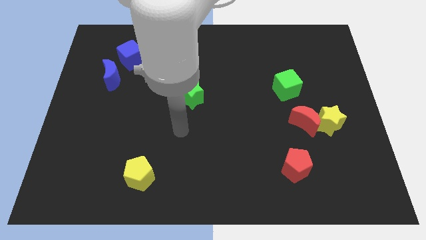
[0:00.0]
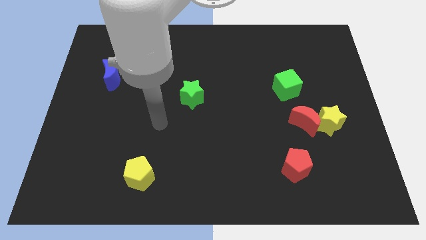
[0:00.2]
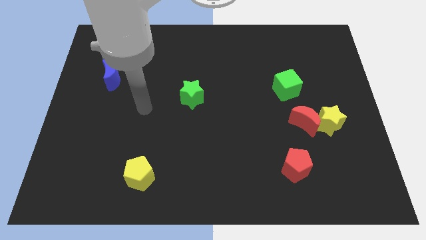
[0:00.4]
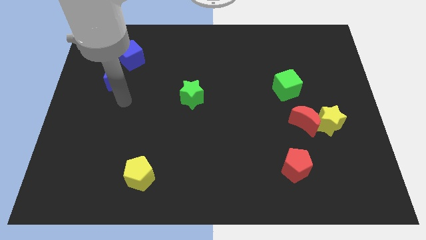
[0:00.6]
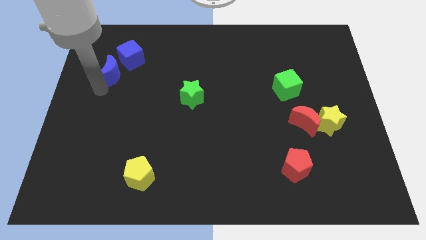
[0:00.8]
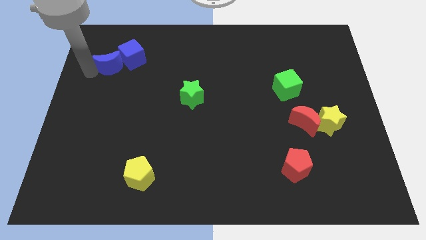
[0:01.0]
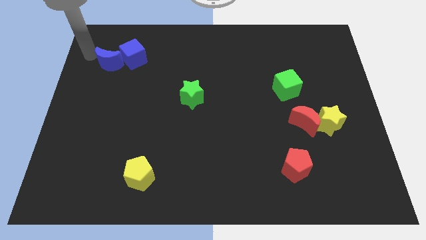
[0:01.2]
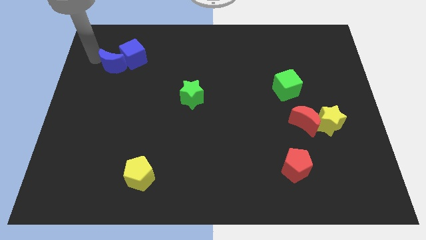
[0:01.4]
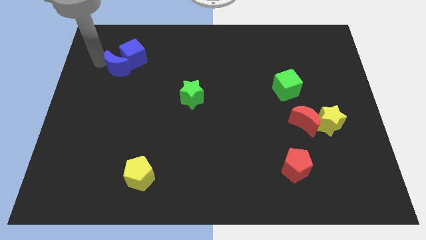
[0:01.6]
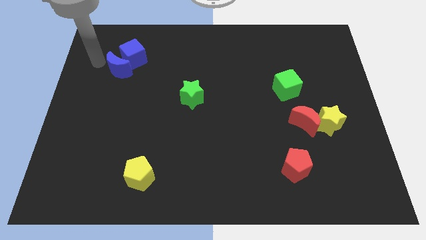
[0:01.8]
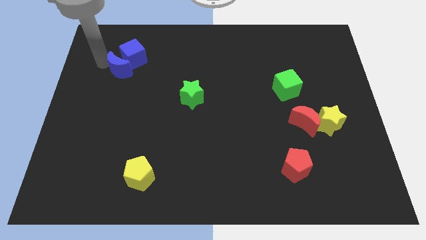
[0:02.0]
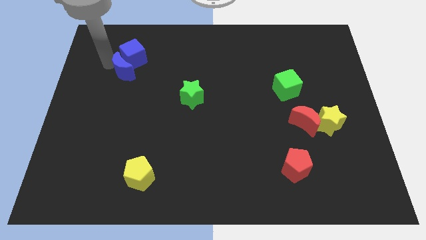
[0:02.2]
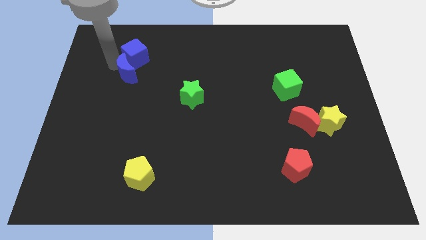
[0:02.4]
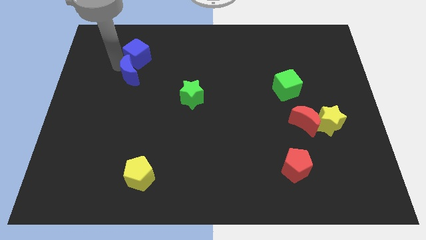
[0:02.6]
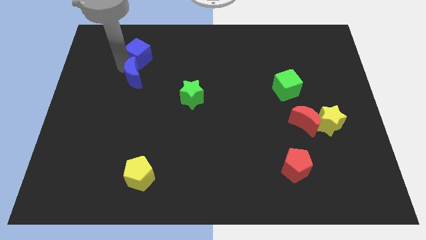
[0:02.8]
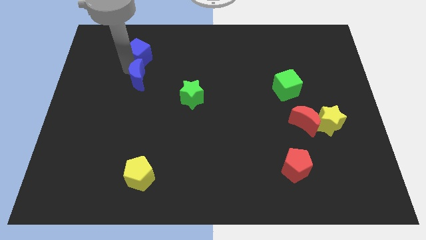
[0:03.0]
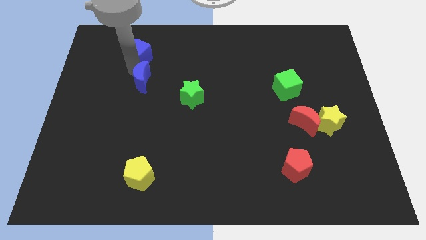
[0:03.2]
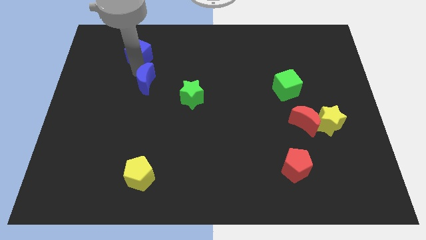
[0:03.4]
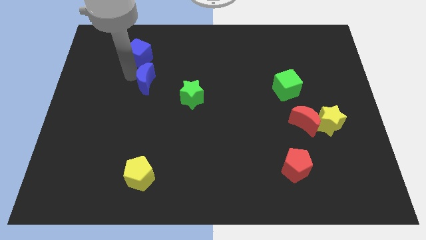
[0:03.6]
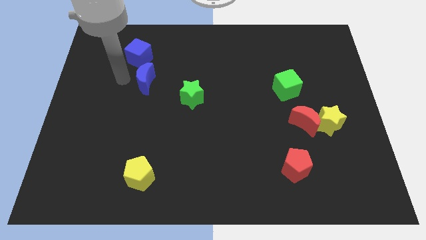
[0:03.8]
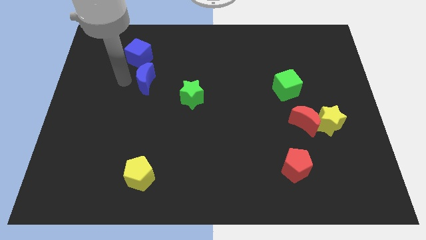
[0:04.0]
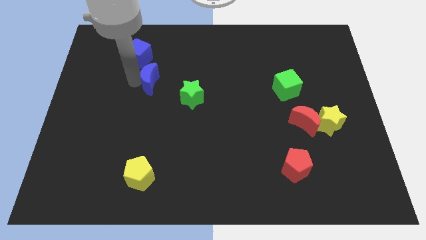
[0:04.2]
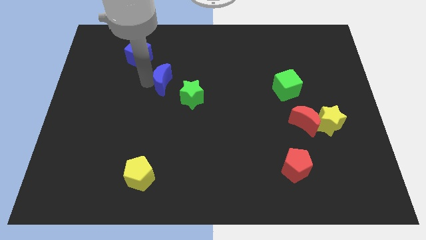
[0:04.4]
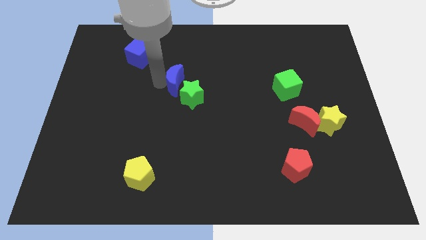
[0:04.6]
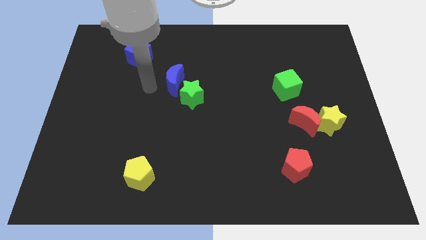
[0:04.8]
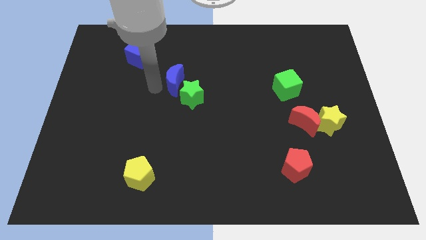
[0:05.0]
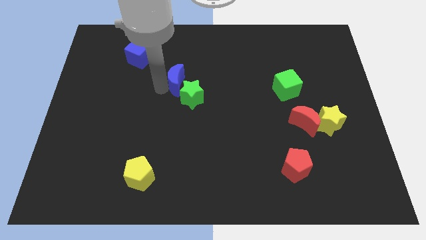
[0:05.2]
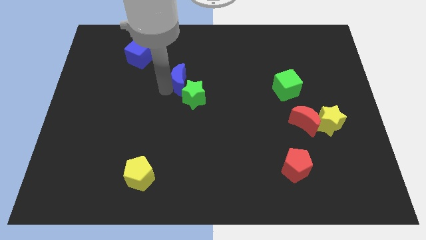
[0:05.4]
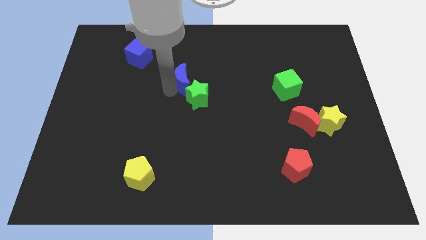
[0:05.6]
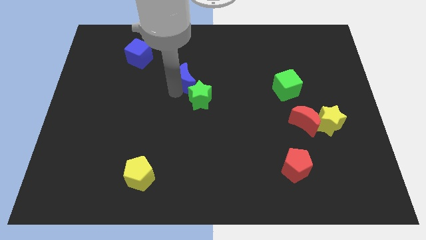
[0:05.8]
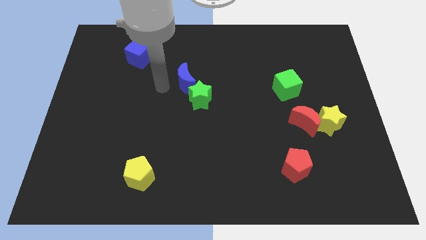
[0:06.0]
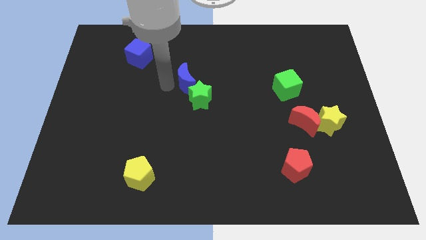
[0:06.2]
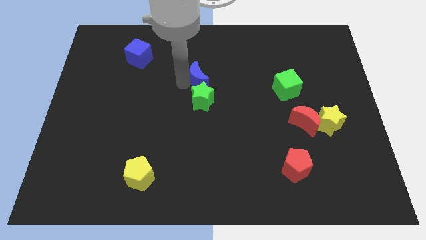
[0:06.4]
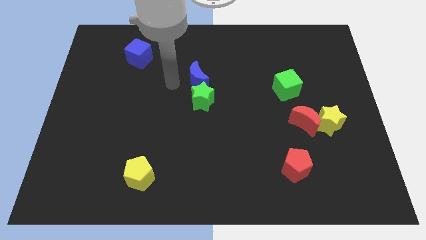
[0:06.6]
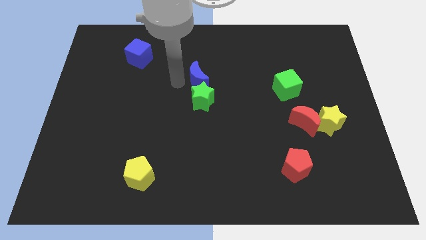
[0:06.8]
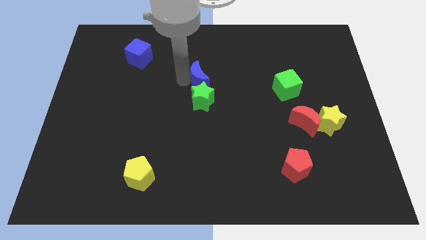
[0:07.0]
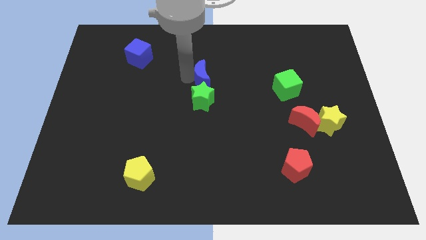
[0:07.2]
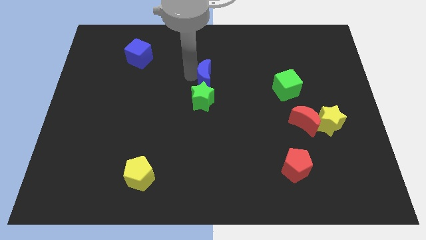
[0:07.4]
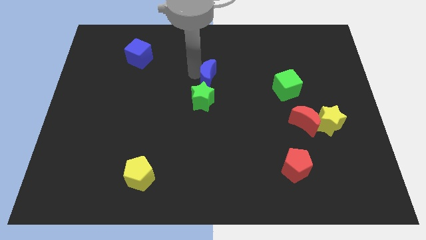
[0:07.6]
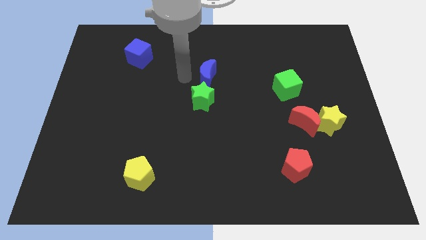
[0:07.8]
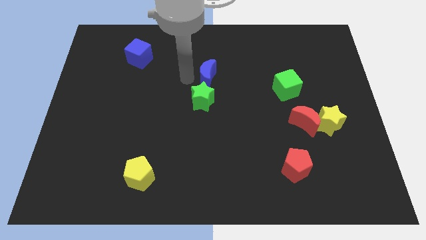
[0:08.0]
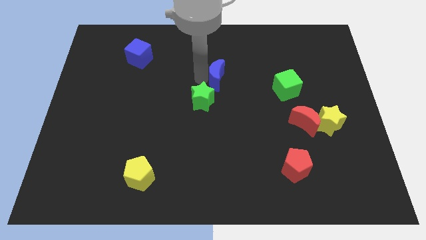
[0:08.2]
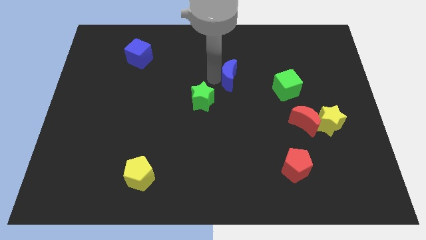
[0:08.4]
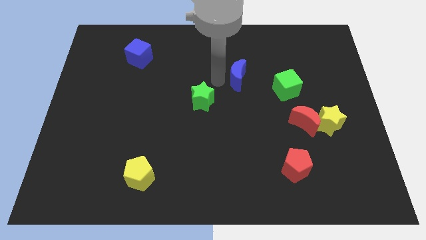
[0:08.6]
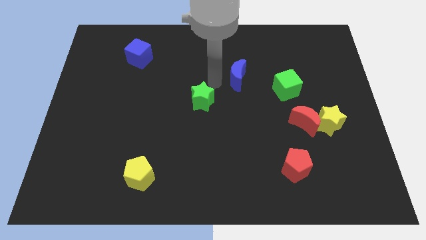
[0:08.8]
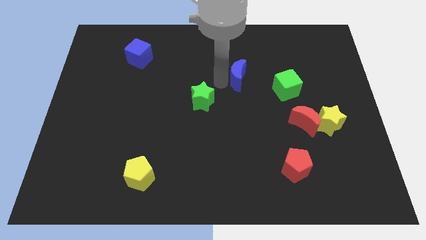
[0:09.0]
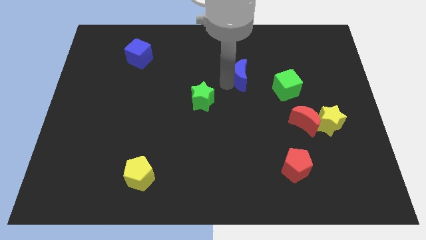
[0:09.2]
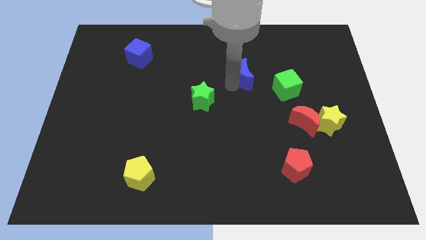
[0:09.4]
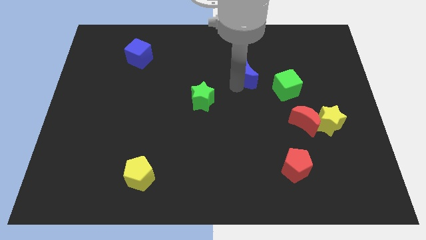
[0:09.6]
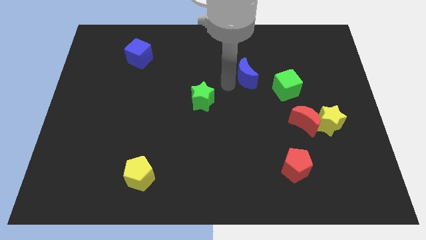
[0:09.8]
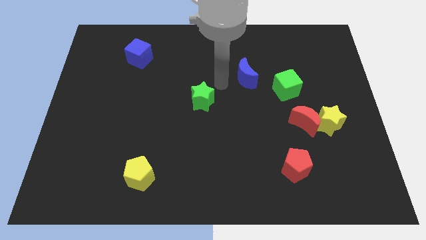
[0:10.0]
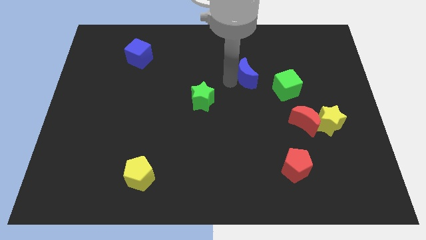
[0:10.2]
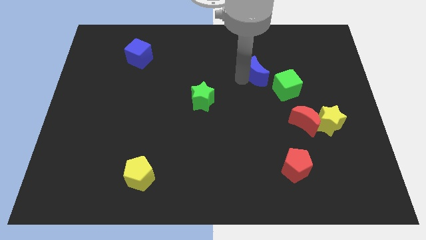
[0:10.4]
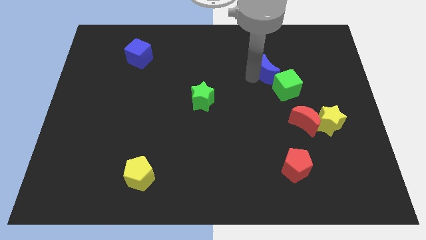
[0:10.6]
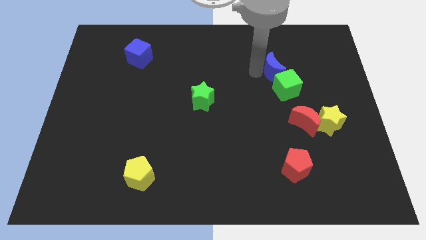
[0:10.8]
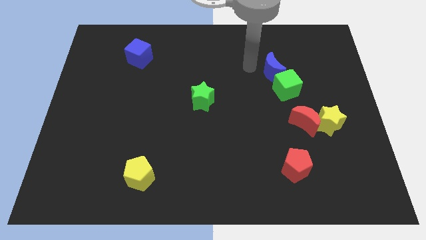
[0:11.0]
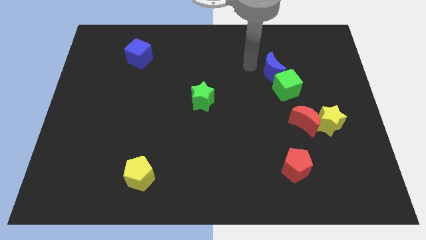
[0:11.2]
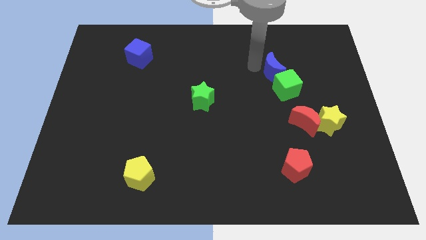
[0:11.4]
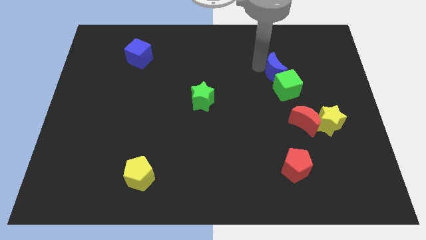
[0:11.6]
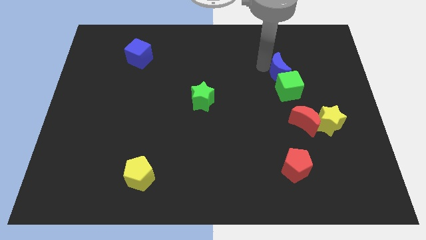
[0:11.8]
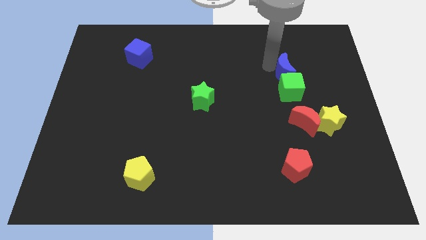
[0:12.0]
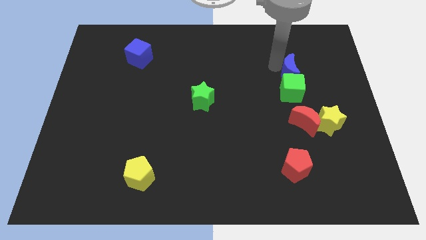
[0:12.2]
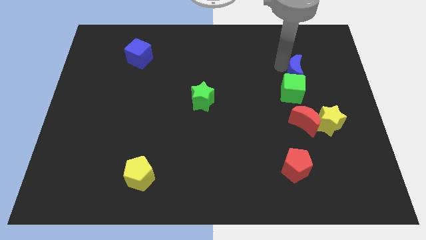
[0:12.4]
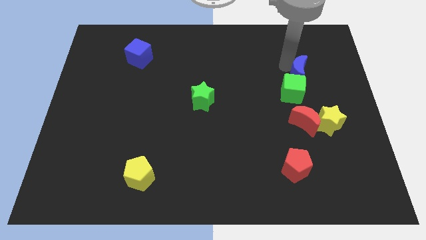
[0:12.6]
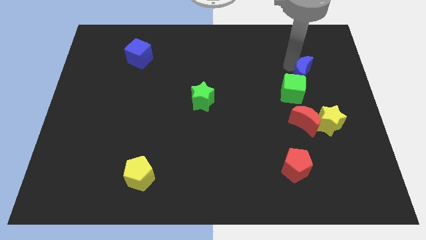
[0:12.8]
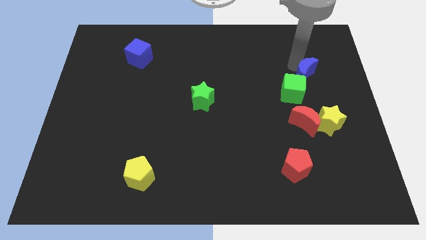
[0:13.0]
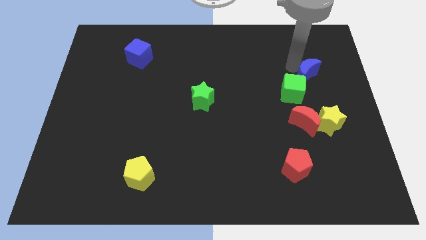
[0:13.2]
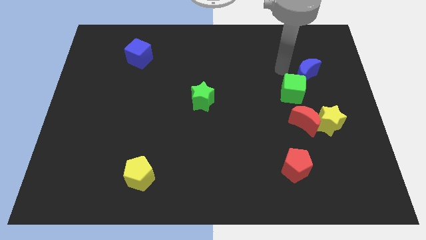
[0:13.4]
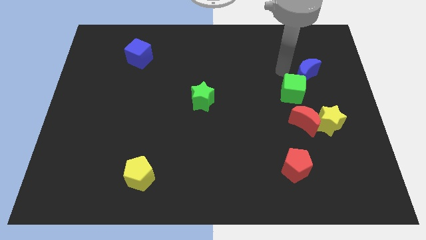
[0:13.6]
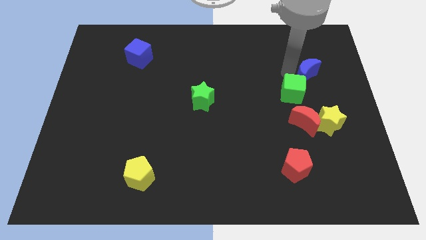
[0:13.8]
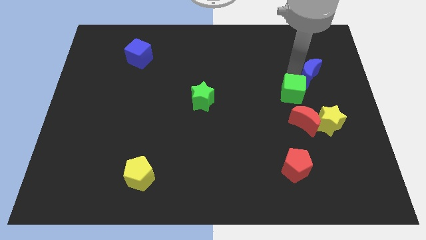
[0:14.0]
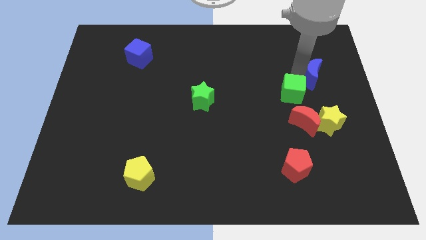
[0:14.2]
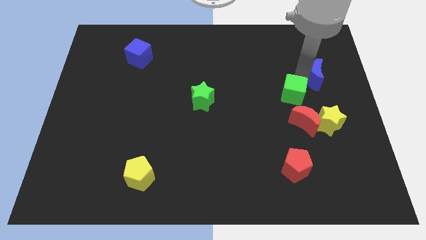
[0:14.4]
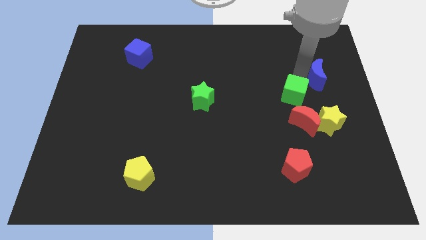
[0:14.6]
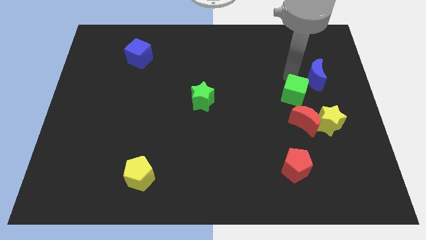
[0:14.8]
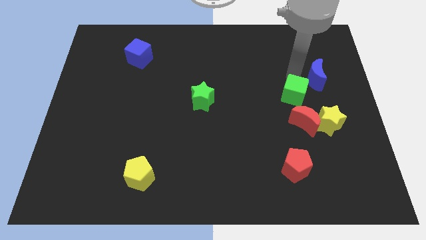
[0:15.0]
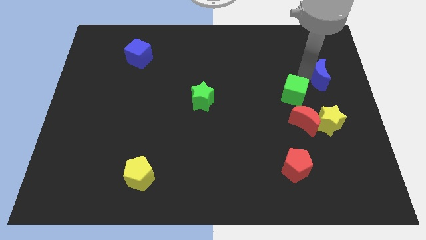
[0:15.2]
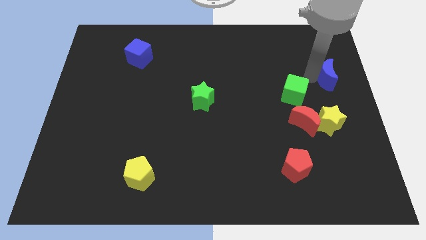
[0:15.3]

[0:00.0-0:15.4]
push the blue moon to the right side of the board
